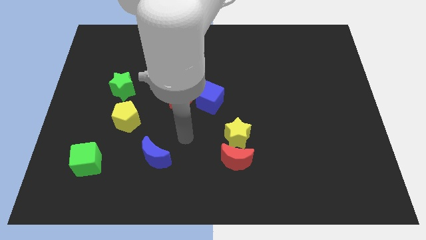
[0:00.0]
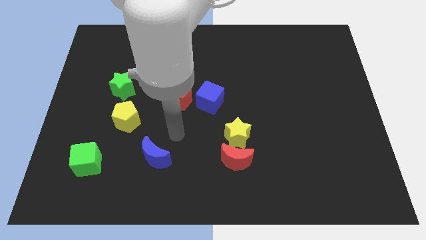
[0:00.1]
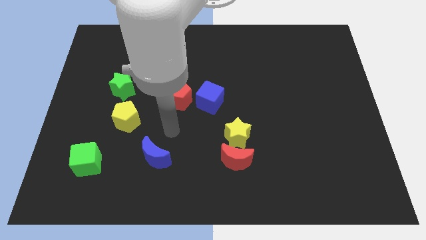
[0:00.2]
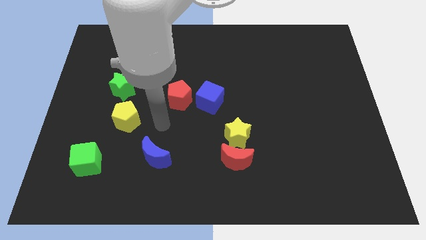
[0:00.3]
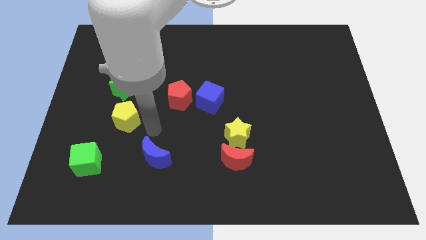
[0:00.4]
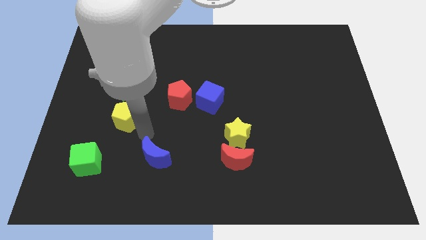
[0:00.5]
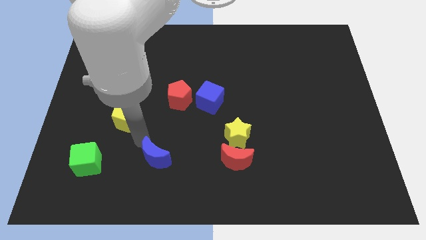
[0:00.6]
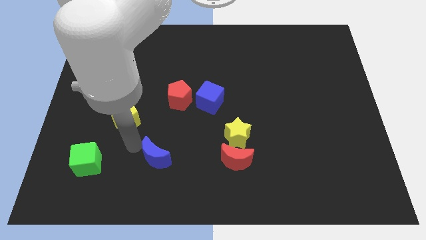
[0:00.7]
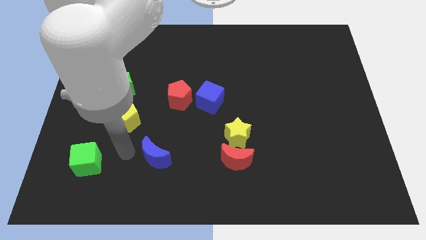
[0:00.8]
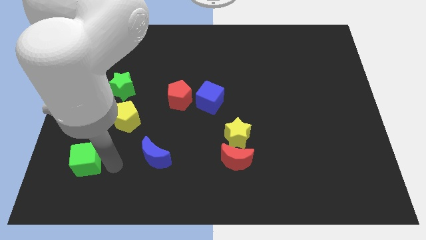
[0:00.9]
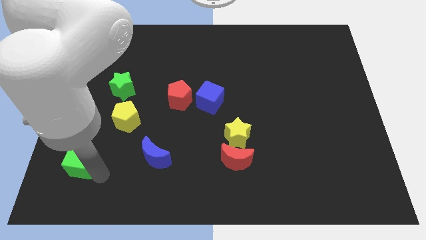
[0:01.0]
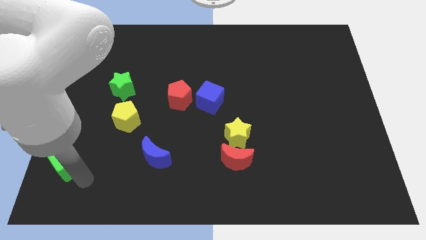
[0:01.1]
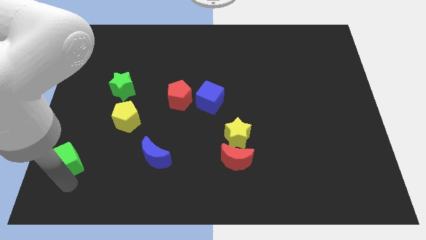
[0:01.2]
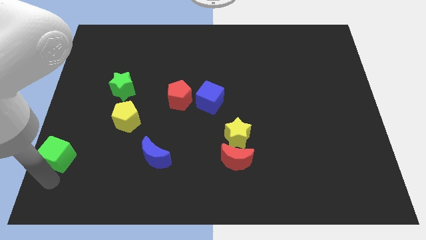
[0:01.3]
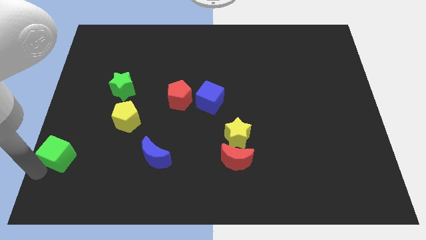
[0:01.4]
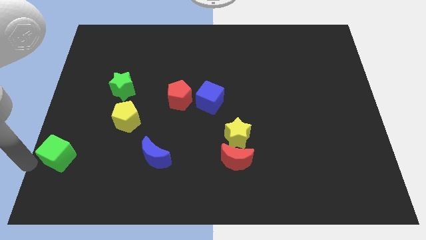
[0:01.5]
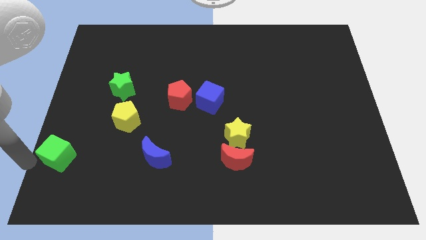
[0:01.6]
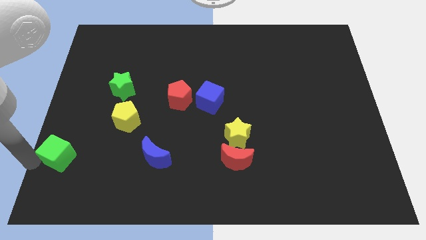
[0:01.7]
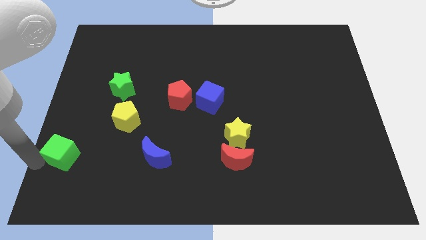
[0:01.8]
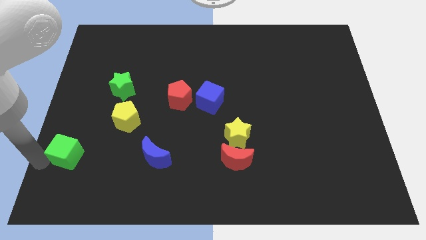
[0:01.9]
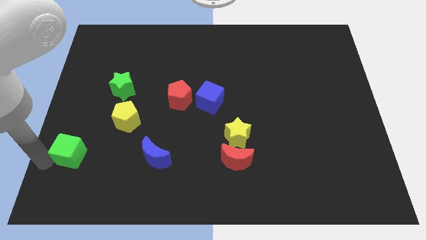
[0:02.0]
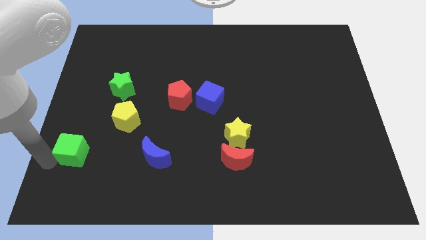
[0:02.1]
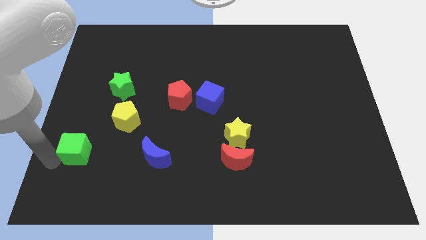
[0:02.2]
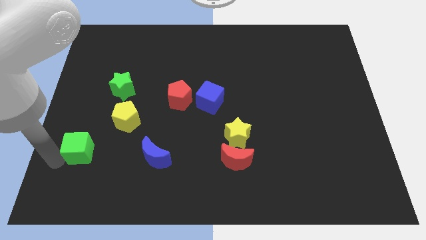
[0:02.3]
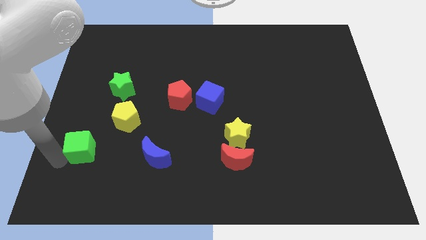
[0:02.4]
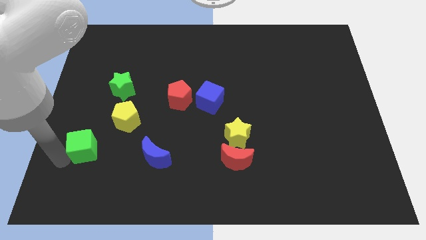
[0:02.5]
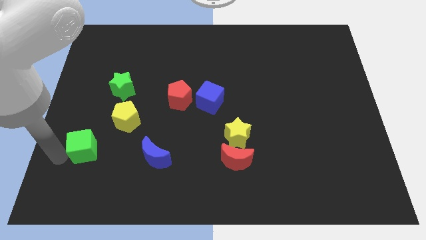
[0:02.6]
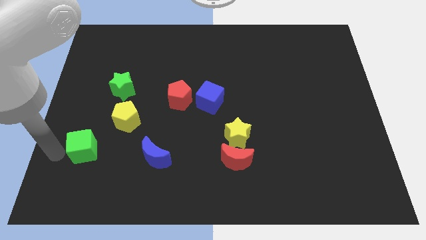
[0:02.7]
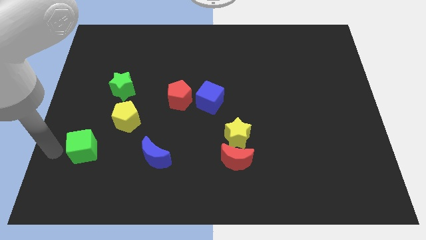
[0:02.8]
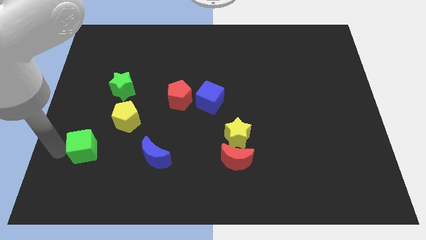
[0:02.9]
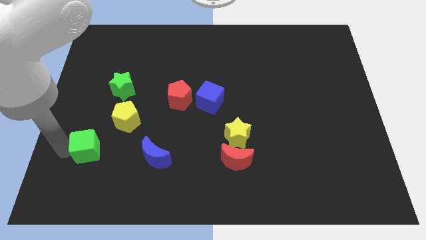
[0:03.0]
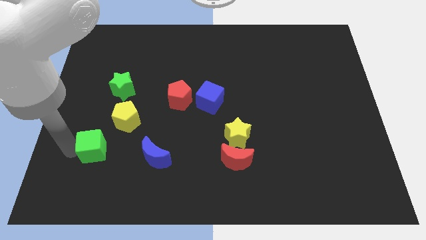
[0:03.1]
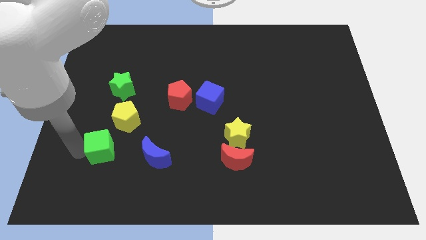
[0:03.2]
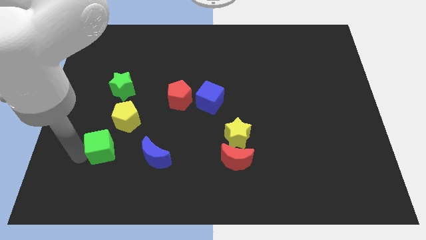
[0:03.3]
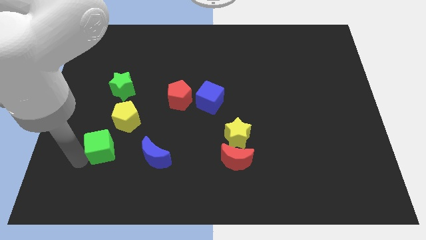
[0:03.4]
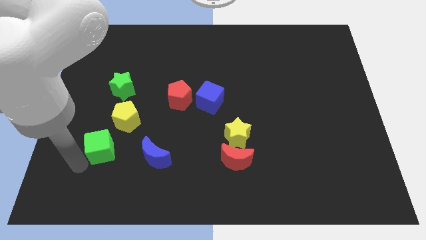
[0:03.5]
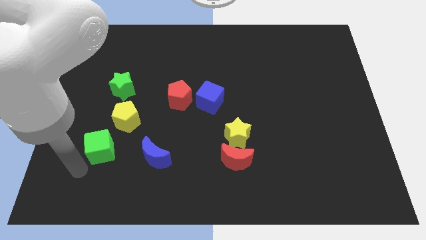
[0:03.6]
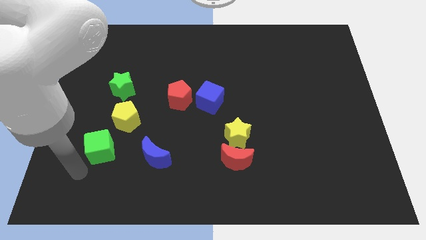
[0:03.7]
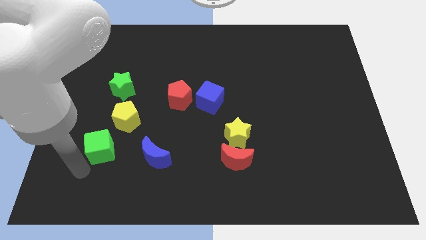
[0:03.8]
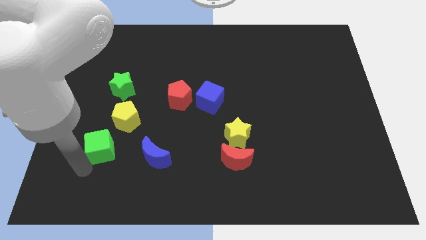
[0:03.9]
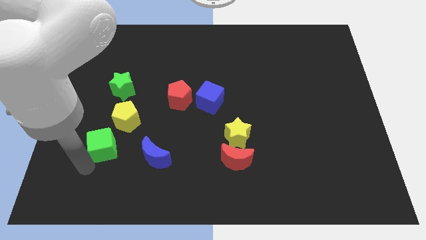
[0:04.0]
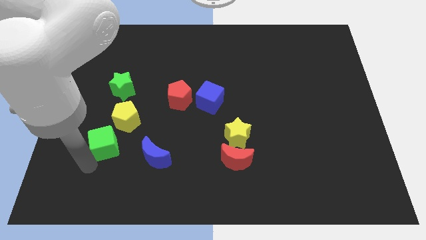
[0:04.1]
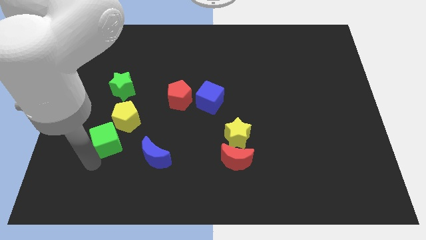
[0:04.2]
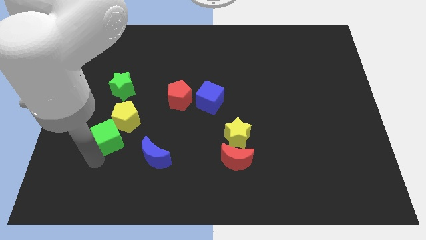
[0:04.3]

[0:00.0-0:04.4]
slide the green cube towards the yellow pentagon

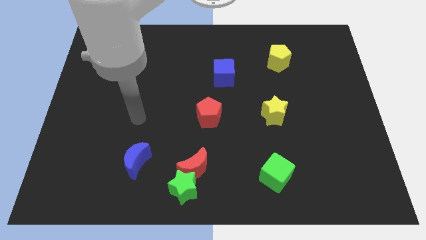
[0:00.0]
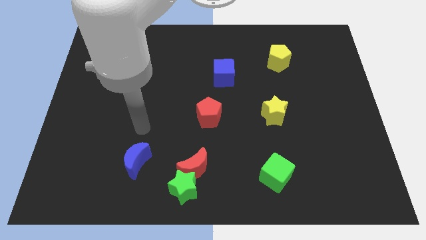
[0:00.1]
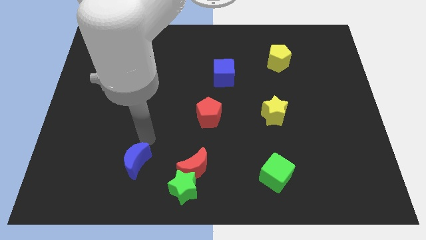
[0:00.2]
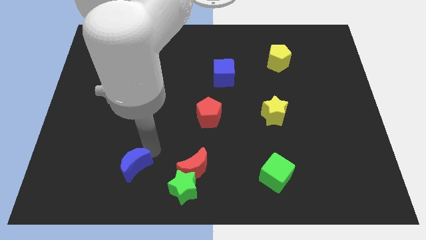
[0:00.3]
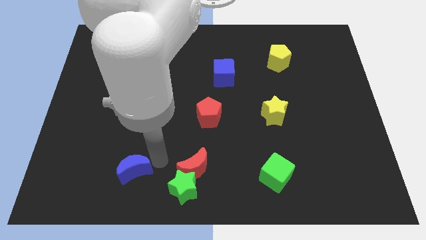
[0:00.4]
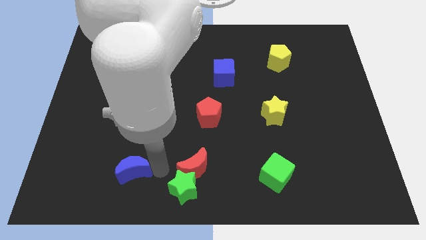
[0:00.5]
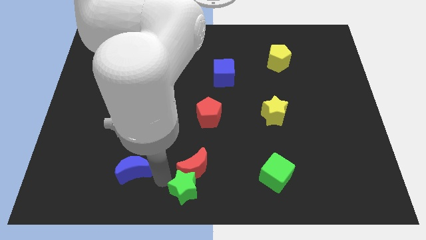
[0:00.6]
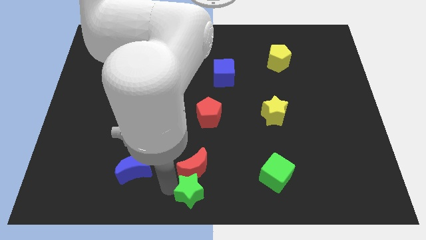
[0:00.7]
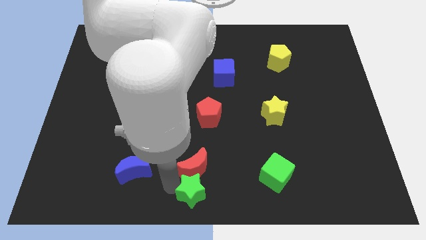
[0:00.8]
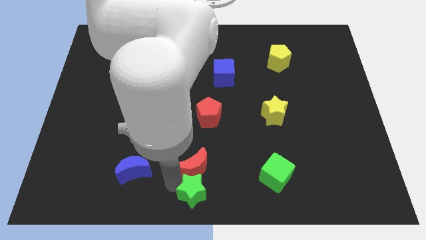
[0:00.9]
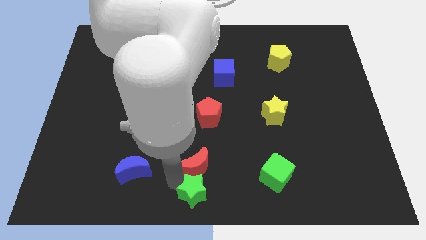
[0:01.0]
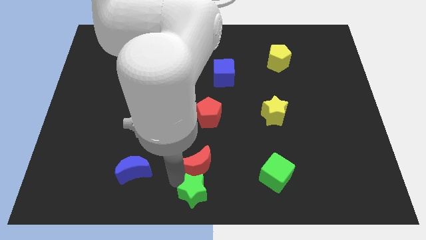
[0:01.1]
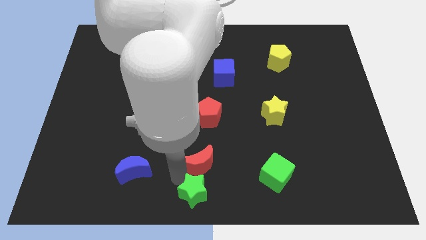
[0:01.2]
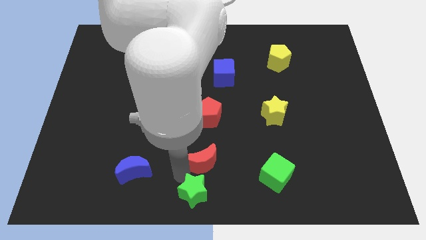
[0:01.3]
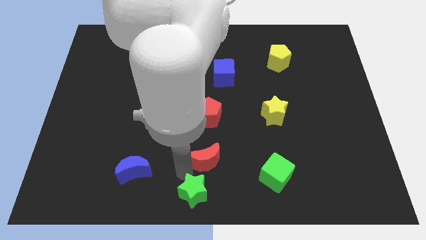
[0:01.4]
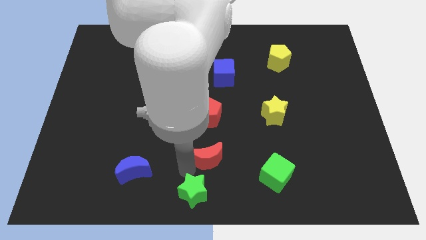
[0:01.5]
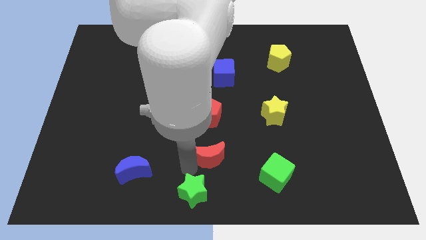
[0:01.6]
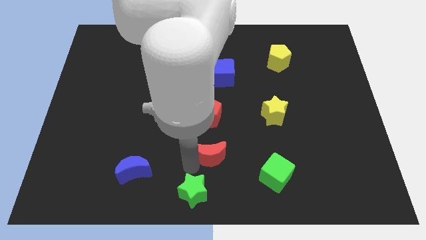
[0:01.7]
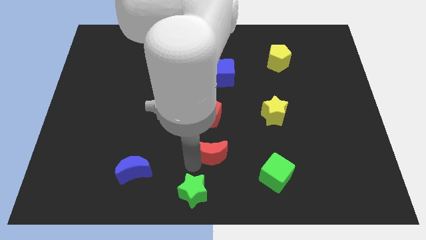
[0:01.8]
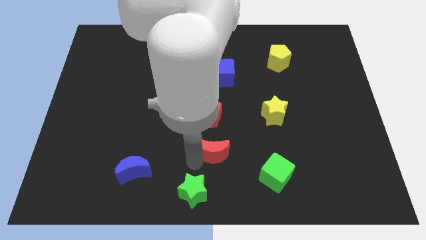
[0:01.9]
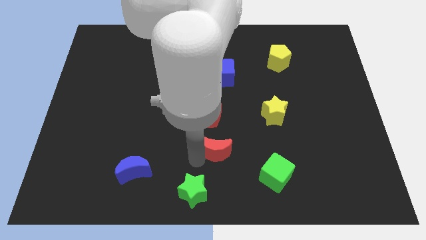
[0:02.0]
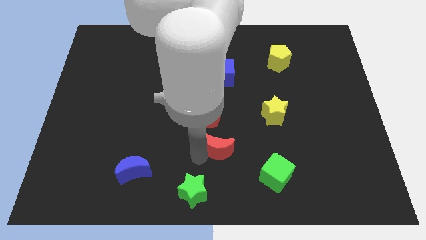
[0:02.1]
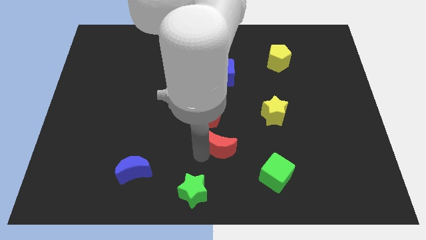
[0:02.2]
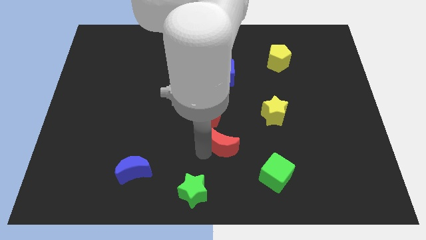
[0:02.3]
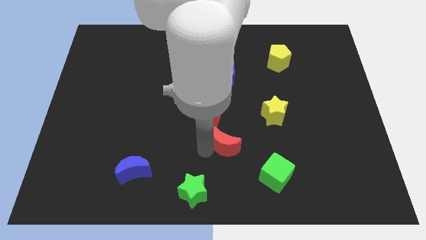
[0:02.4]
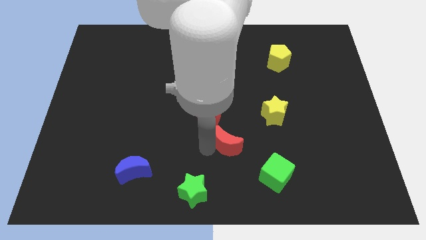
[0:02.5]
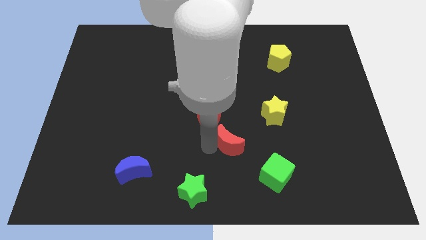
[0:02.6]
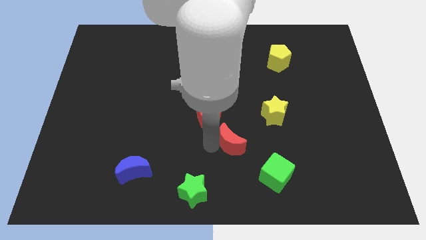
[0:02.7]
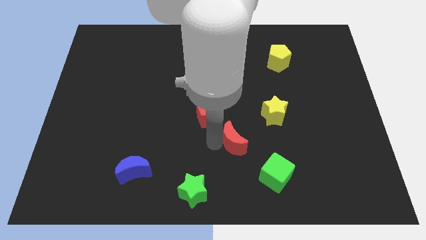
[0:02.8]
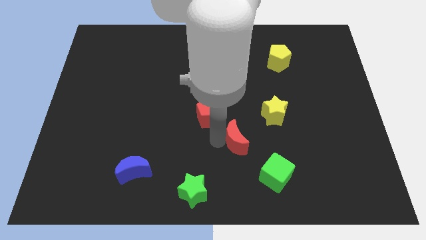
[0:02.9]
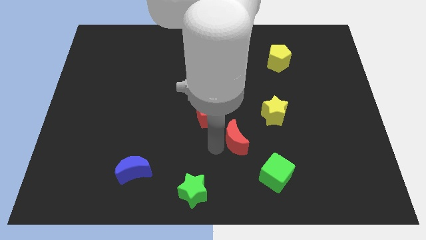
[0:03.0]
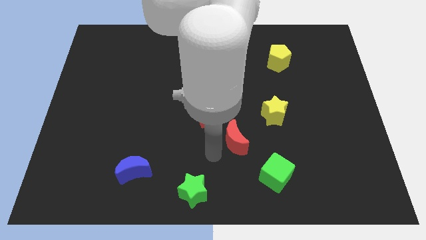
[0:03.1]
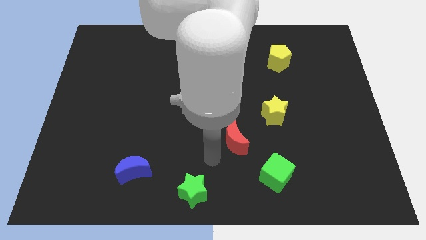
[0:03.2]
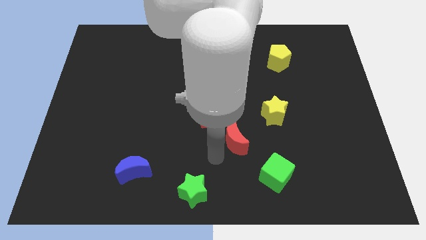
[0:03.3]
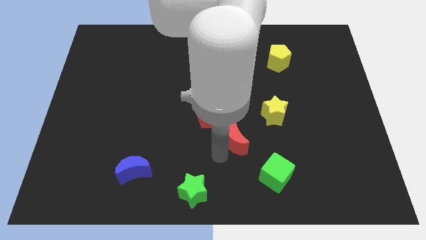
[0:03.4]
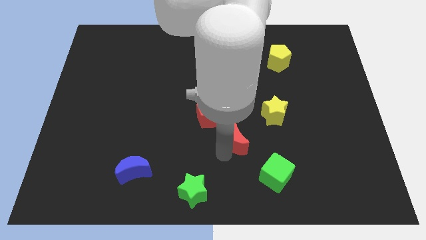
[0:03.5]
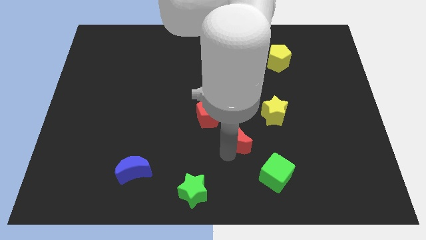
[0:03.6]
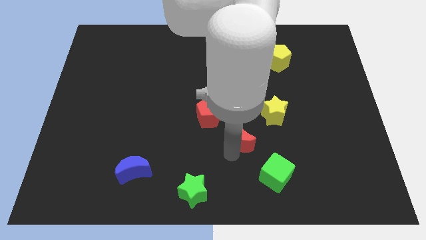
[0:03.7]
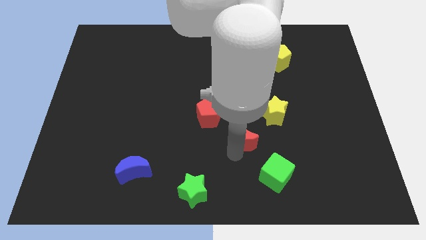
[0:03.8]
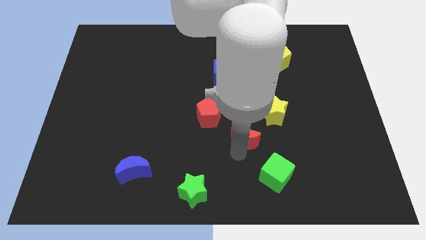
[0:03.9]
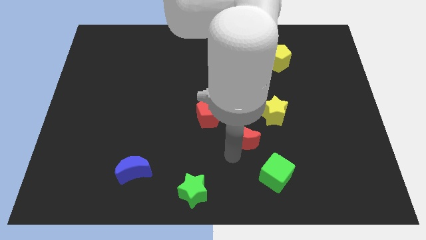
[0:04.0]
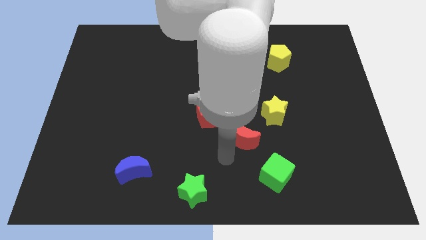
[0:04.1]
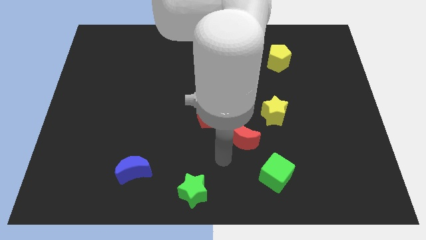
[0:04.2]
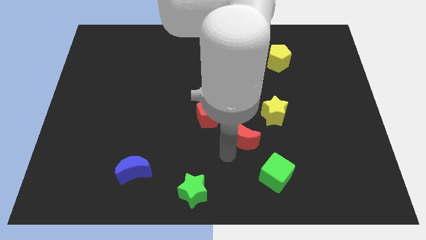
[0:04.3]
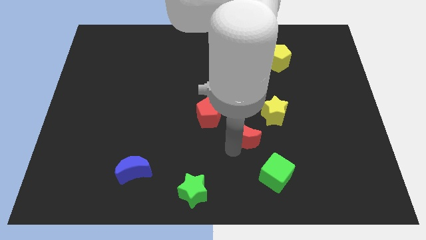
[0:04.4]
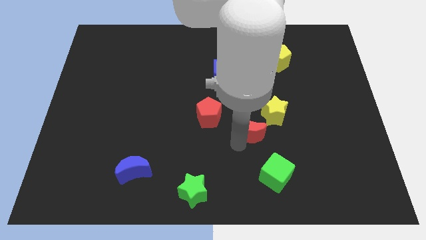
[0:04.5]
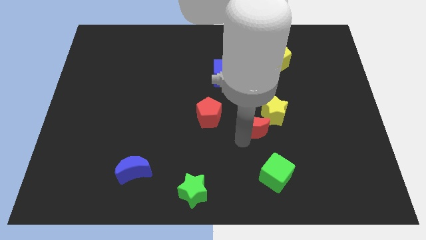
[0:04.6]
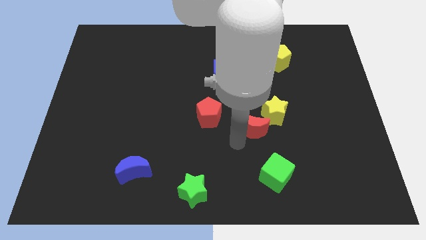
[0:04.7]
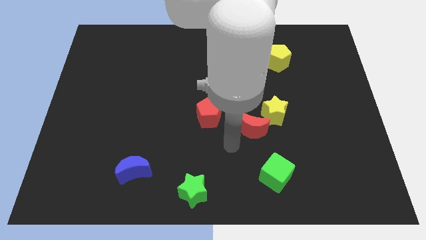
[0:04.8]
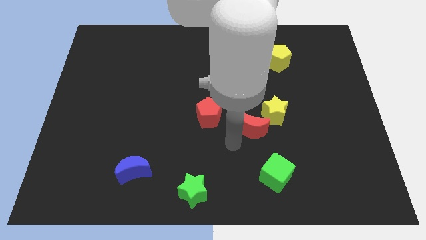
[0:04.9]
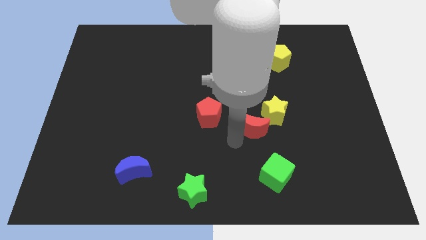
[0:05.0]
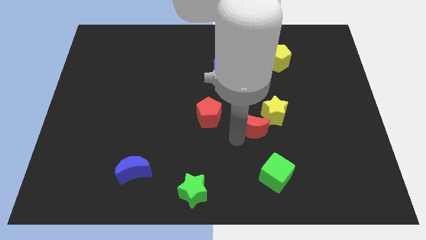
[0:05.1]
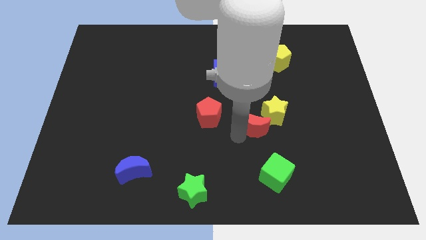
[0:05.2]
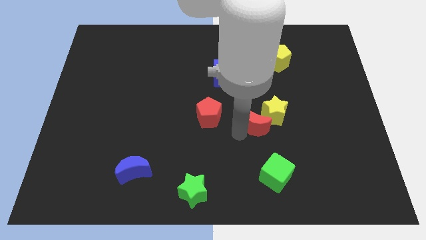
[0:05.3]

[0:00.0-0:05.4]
move the red moon to the yellow star
